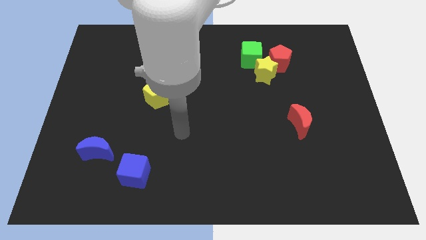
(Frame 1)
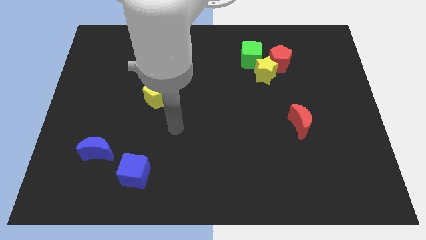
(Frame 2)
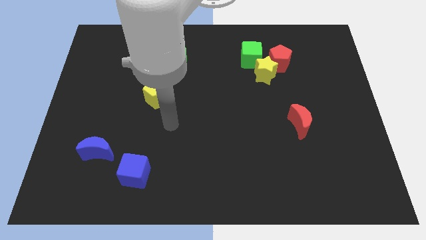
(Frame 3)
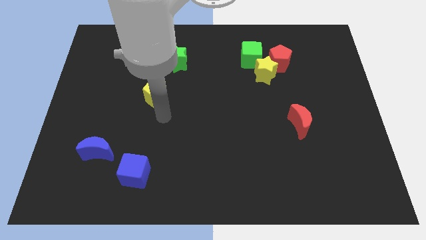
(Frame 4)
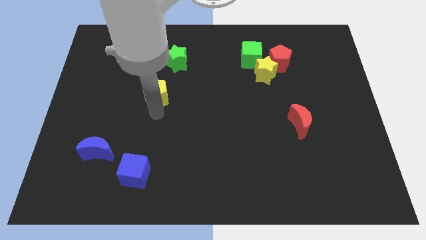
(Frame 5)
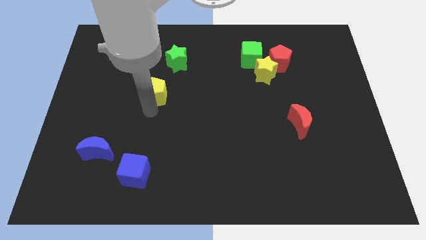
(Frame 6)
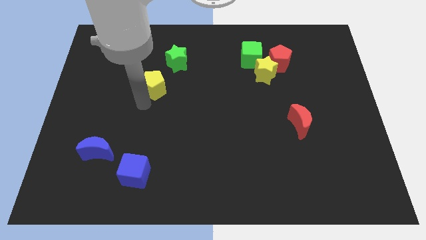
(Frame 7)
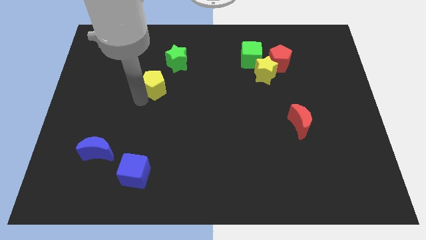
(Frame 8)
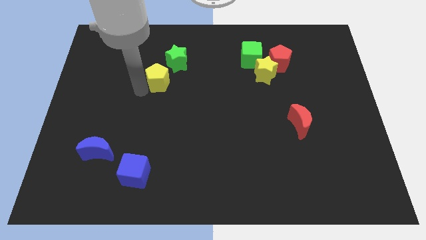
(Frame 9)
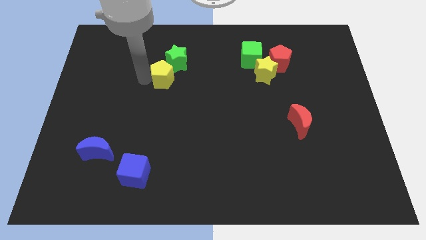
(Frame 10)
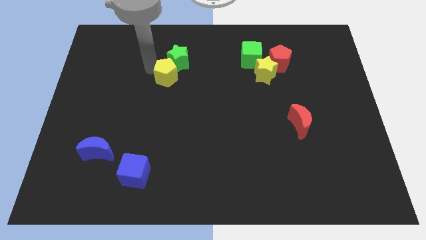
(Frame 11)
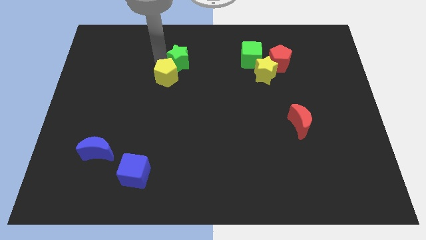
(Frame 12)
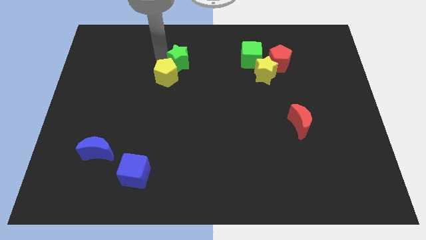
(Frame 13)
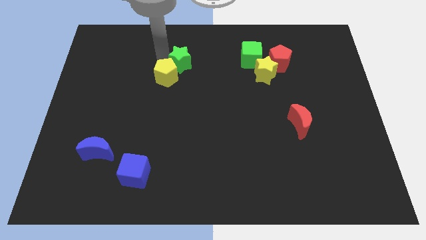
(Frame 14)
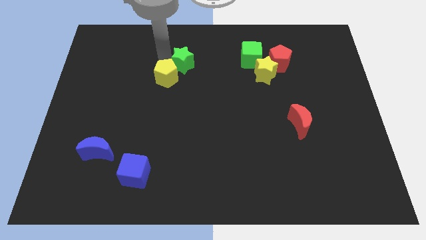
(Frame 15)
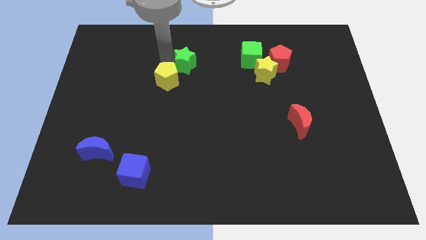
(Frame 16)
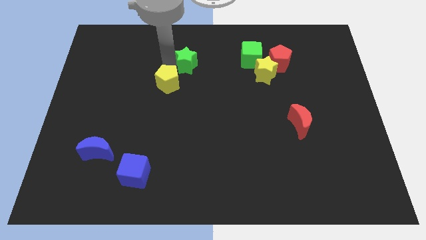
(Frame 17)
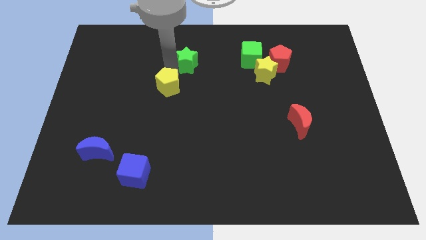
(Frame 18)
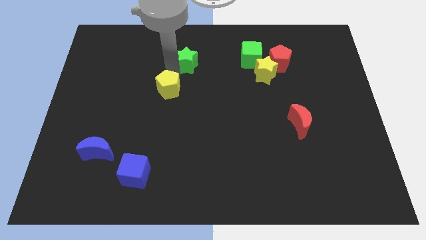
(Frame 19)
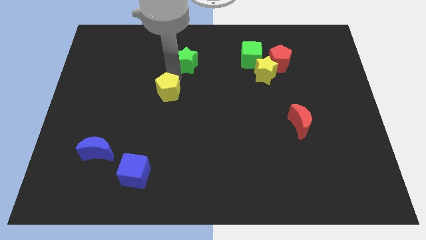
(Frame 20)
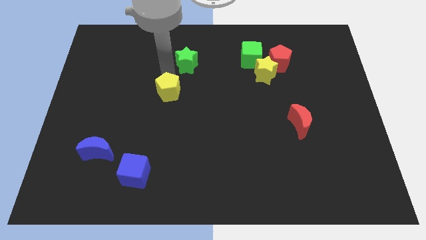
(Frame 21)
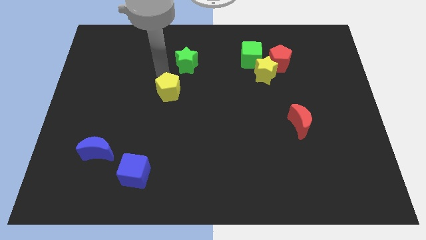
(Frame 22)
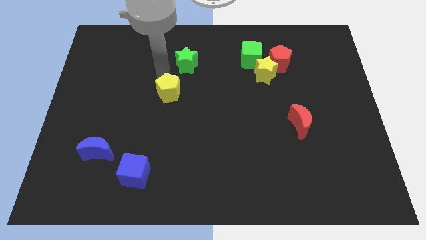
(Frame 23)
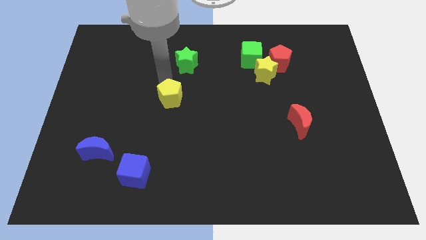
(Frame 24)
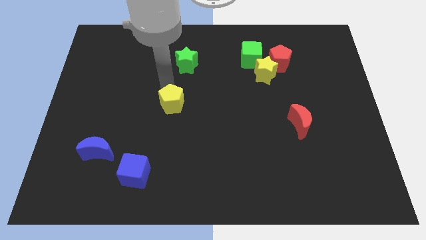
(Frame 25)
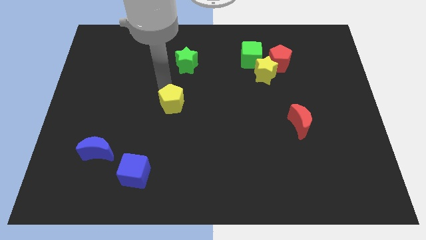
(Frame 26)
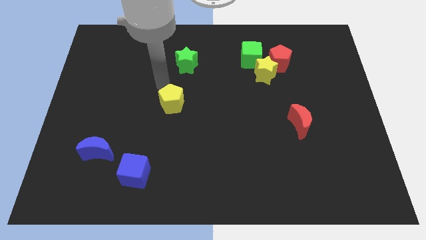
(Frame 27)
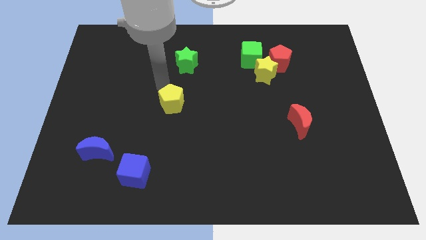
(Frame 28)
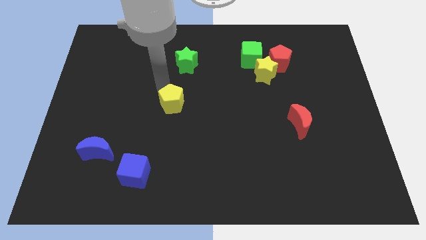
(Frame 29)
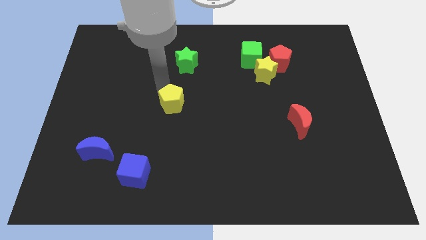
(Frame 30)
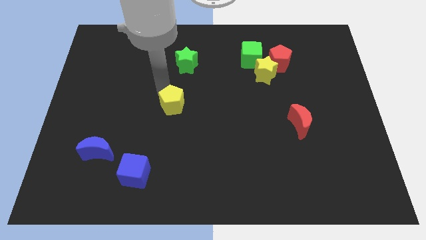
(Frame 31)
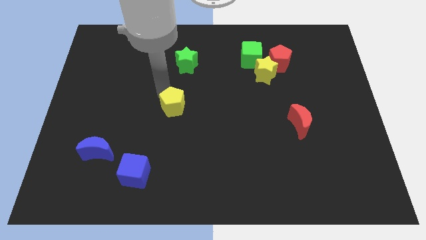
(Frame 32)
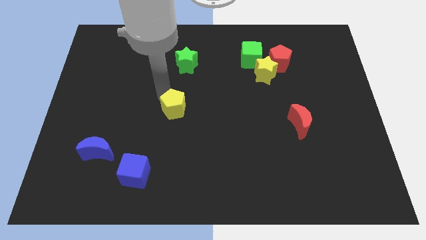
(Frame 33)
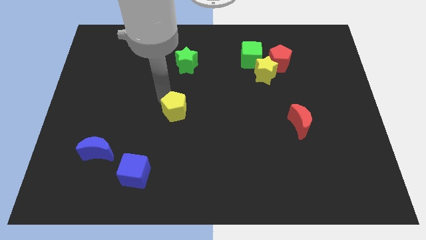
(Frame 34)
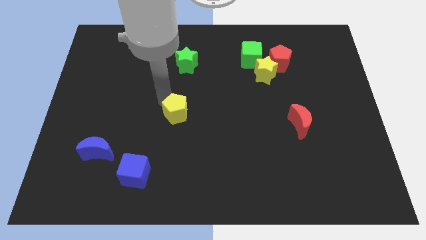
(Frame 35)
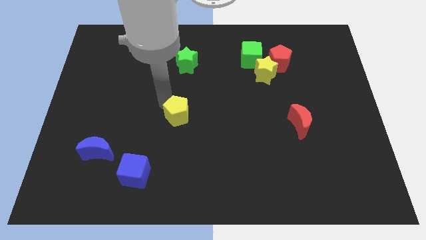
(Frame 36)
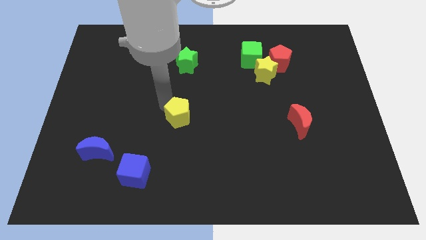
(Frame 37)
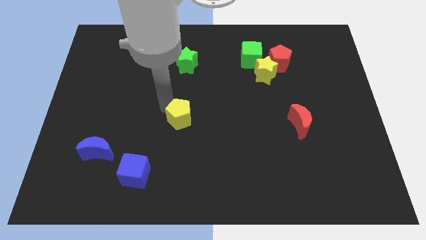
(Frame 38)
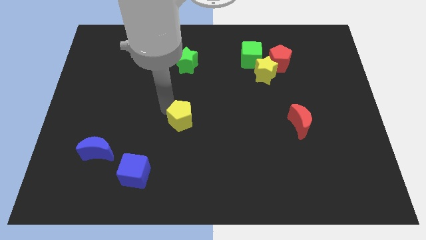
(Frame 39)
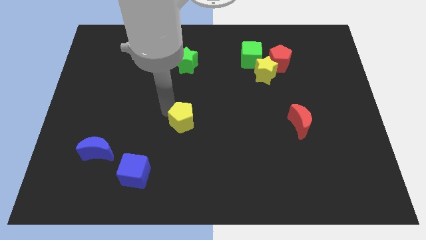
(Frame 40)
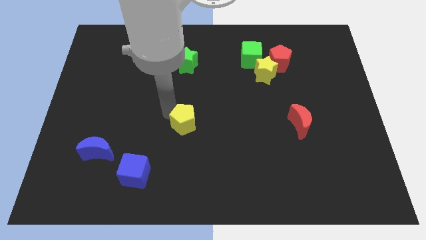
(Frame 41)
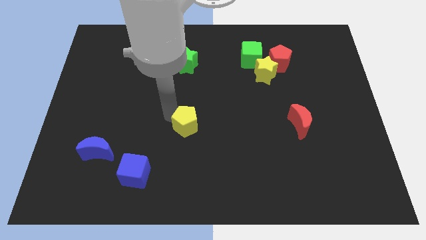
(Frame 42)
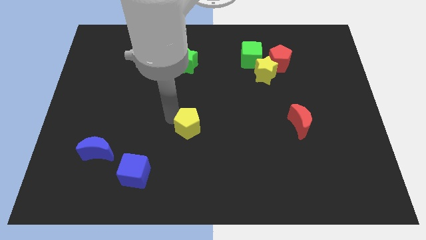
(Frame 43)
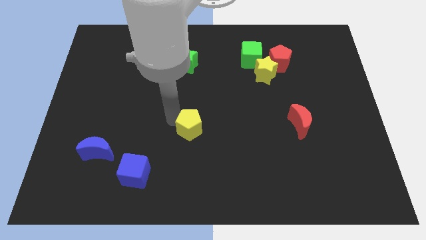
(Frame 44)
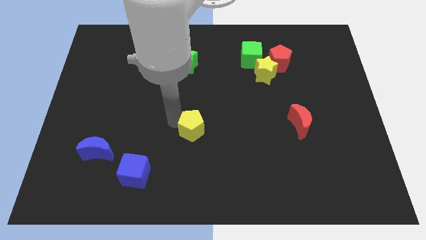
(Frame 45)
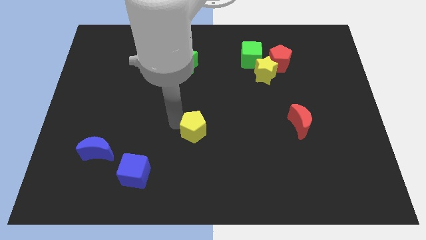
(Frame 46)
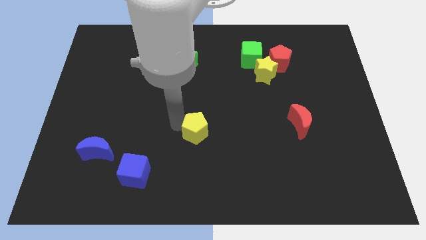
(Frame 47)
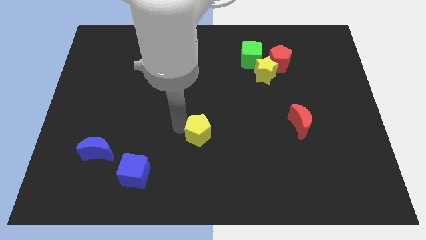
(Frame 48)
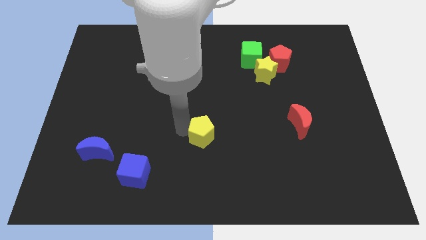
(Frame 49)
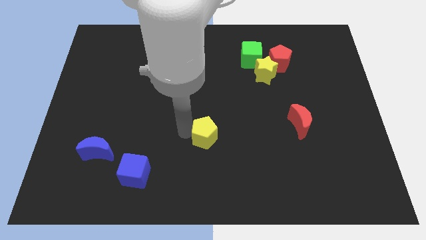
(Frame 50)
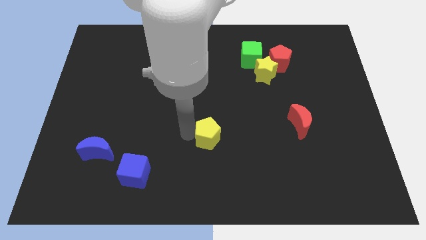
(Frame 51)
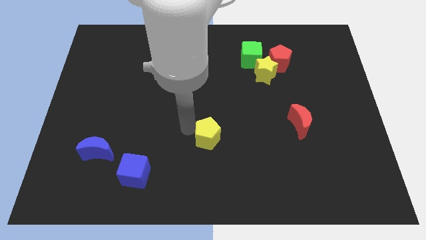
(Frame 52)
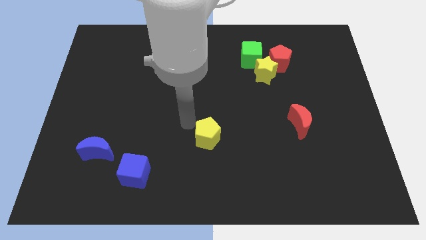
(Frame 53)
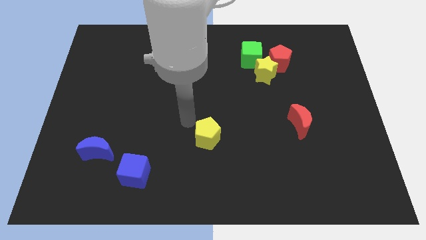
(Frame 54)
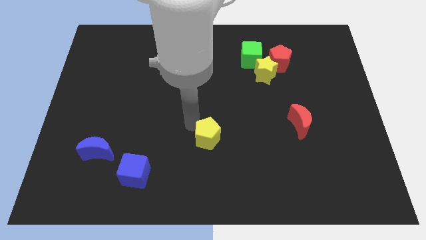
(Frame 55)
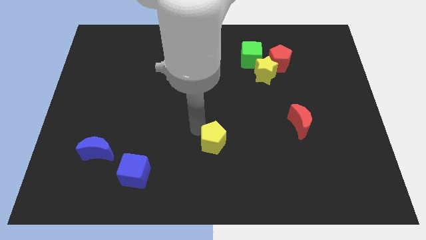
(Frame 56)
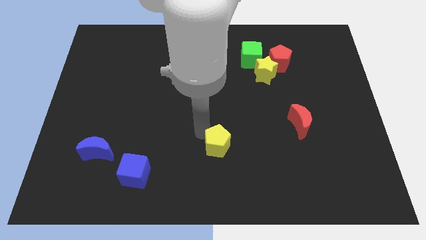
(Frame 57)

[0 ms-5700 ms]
move the yellow pentagon diagonally down and right

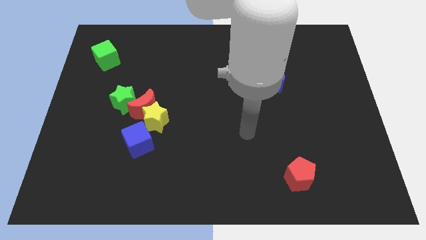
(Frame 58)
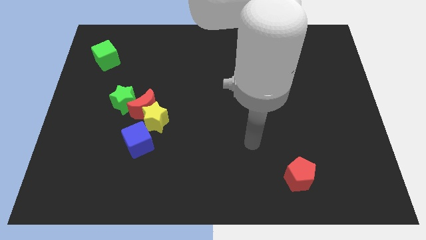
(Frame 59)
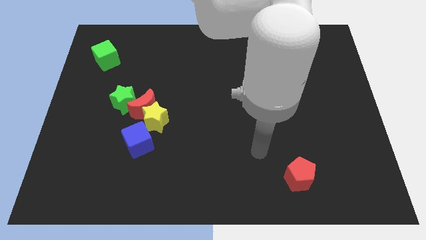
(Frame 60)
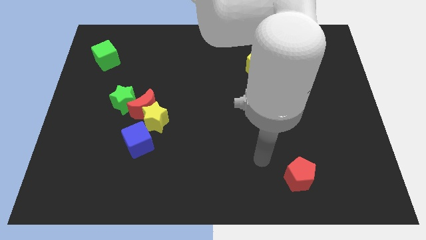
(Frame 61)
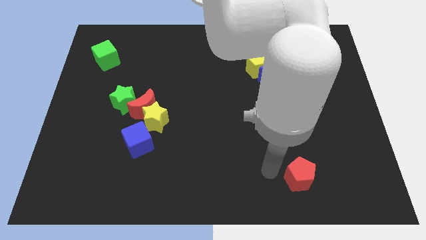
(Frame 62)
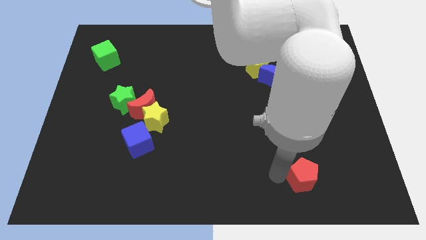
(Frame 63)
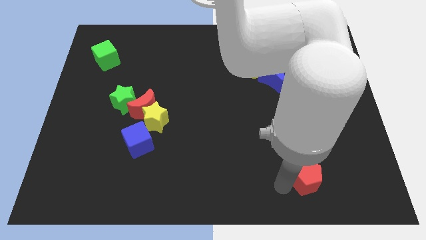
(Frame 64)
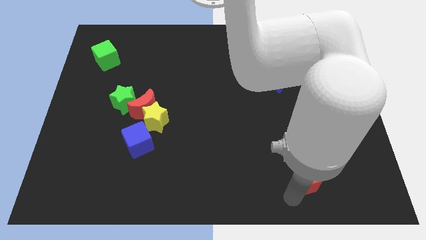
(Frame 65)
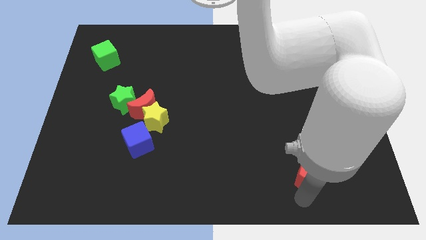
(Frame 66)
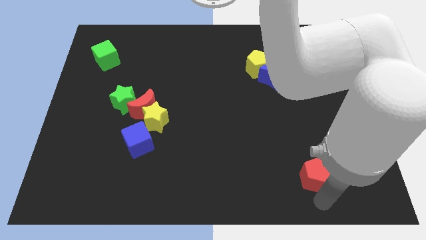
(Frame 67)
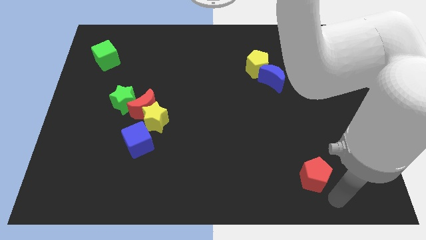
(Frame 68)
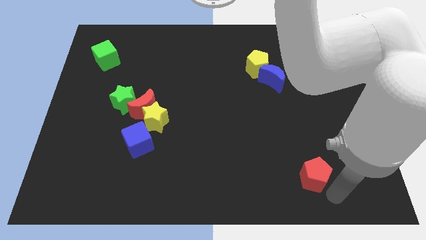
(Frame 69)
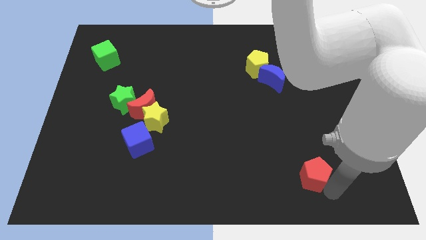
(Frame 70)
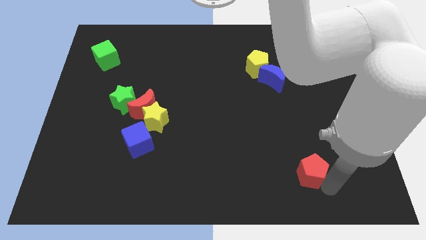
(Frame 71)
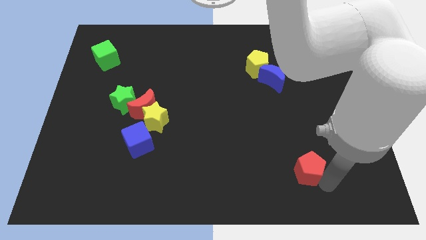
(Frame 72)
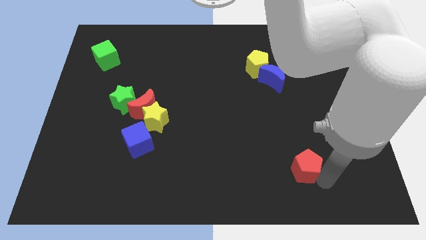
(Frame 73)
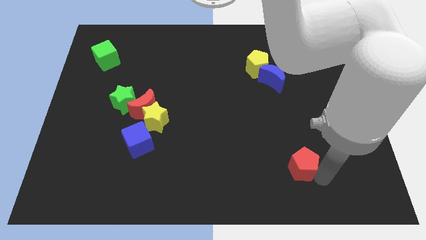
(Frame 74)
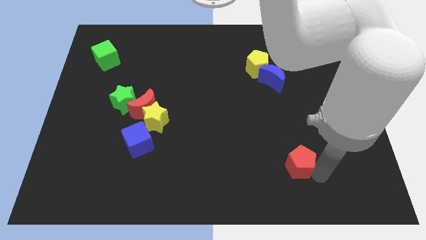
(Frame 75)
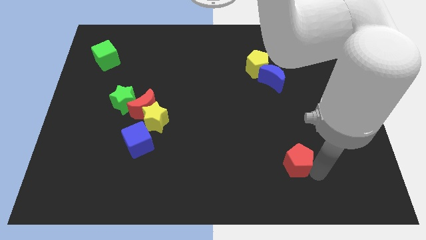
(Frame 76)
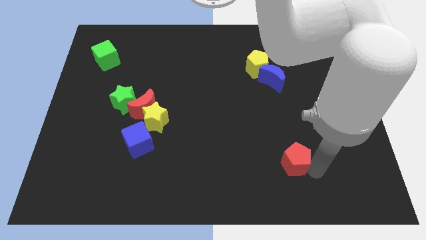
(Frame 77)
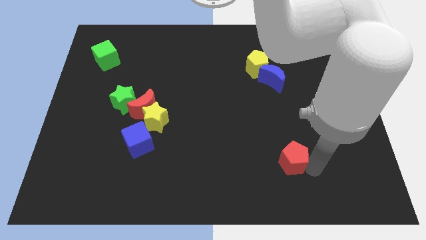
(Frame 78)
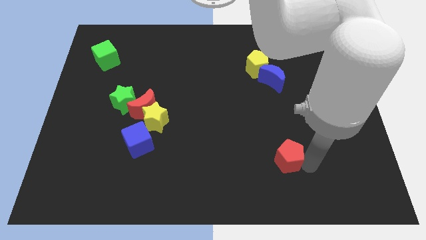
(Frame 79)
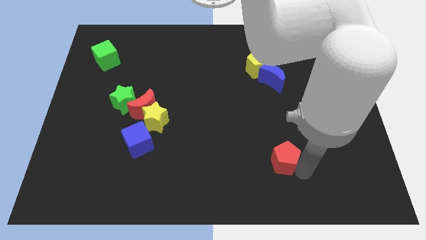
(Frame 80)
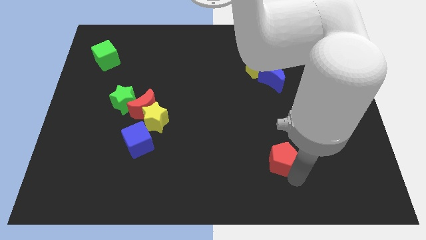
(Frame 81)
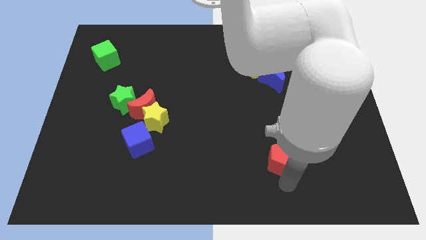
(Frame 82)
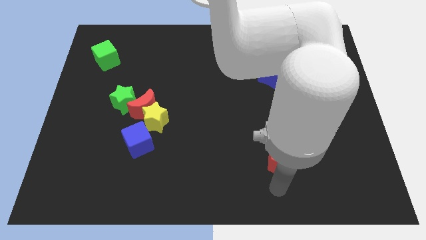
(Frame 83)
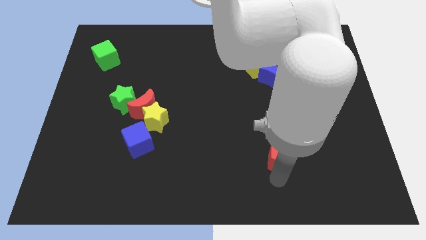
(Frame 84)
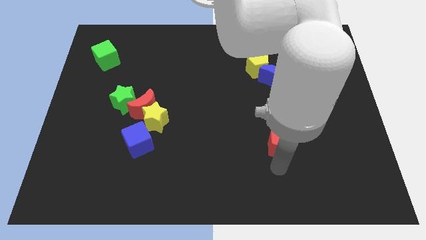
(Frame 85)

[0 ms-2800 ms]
slide the red pentagon up somewhat
